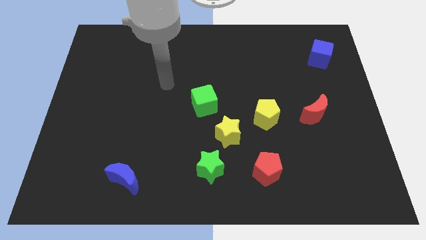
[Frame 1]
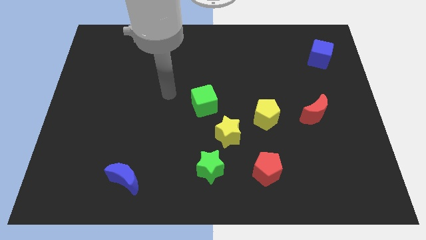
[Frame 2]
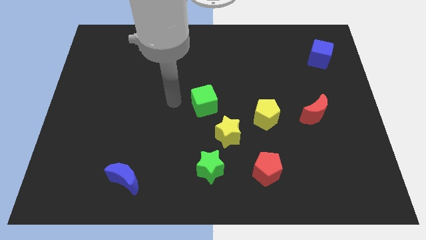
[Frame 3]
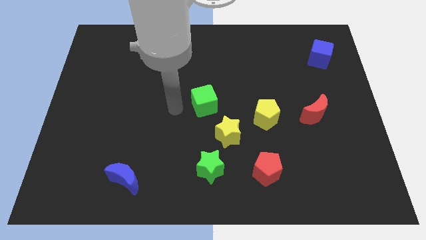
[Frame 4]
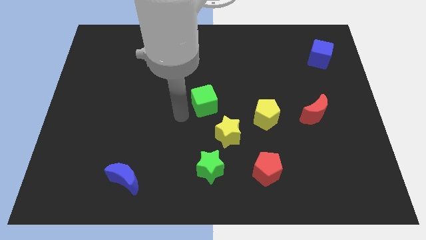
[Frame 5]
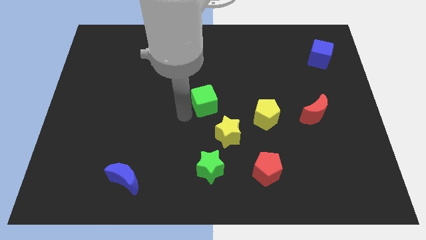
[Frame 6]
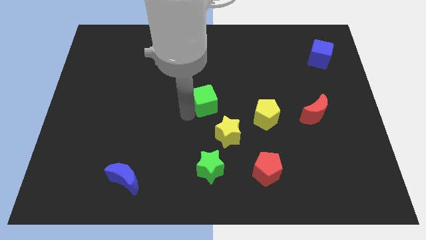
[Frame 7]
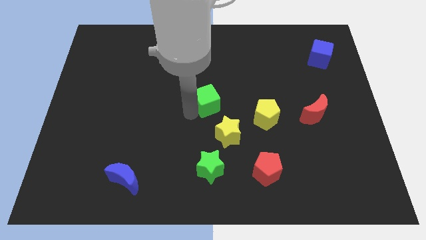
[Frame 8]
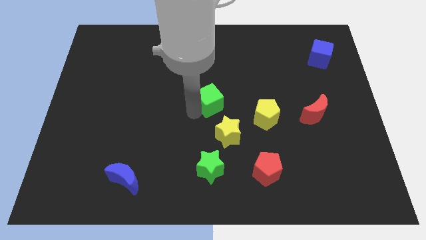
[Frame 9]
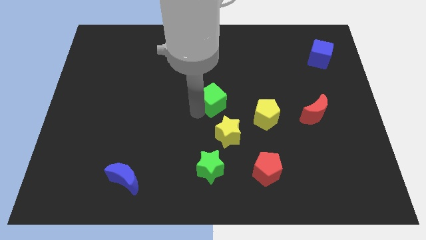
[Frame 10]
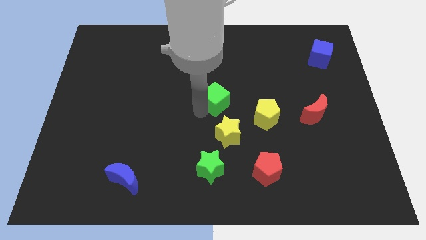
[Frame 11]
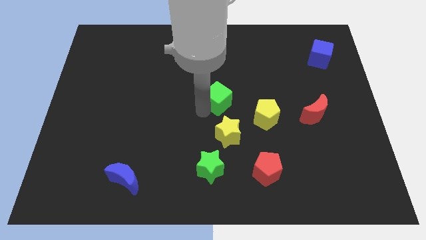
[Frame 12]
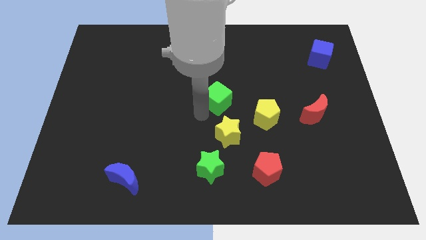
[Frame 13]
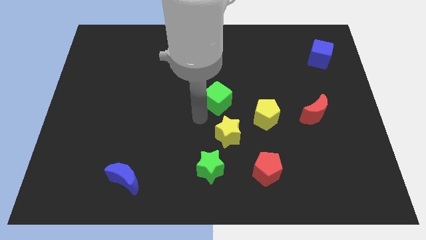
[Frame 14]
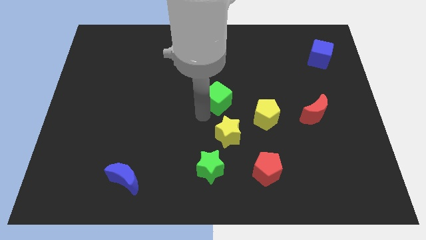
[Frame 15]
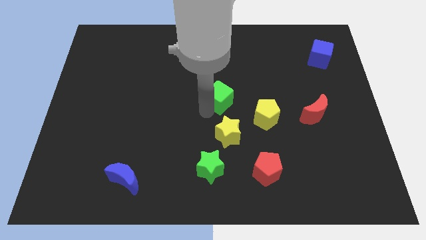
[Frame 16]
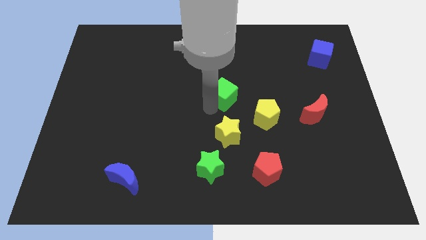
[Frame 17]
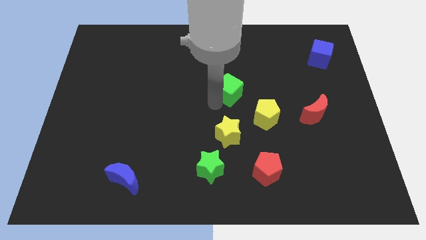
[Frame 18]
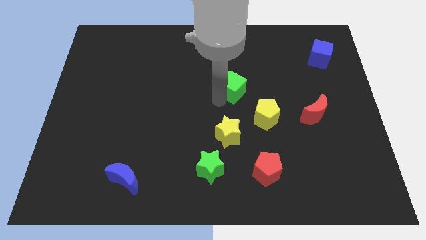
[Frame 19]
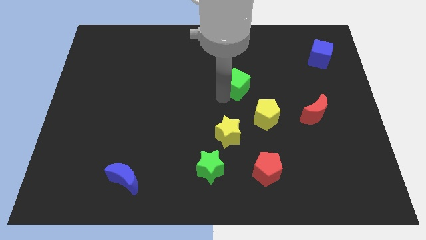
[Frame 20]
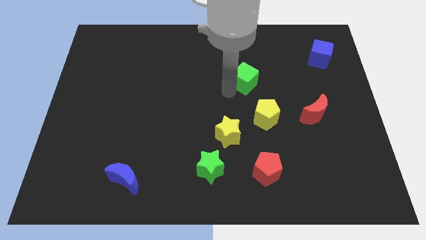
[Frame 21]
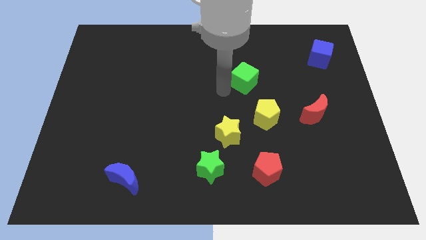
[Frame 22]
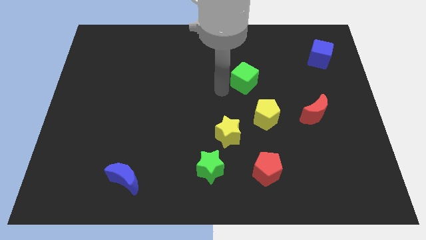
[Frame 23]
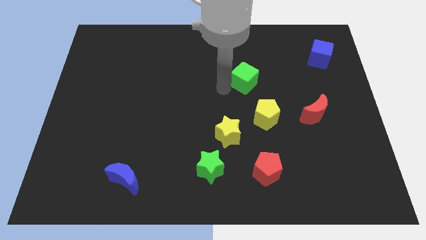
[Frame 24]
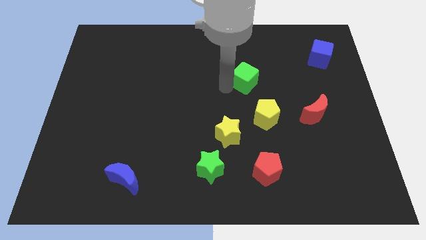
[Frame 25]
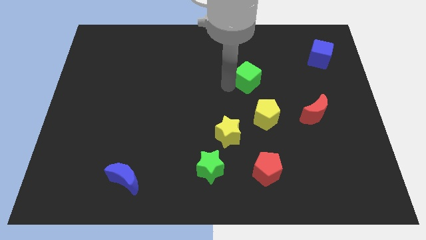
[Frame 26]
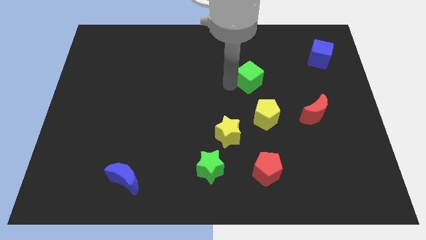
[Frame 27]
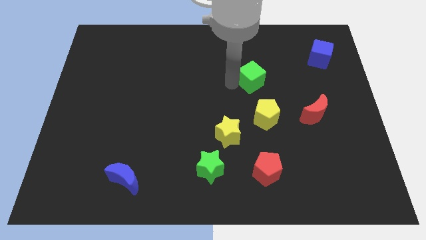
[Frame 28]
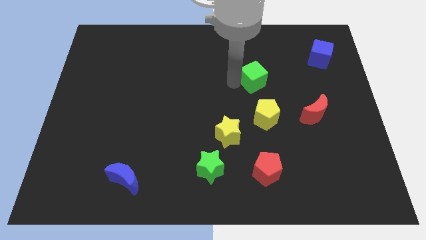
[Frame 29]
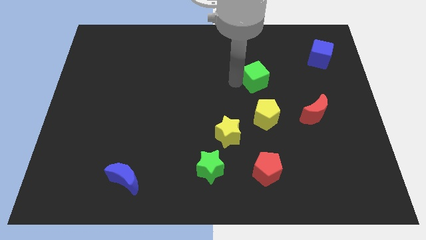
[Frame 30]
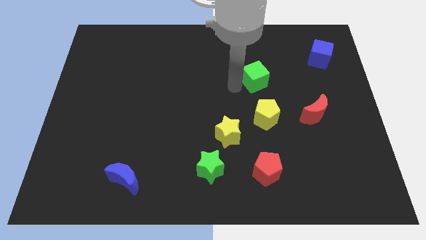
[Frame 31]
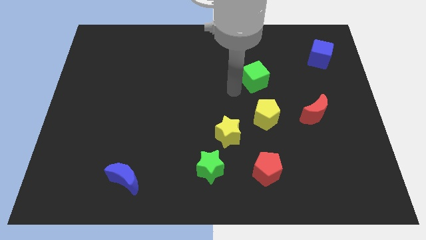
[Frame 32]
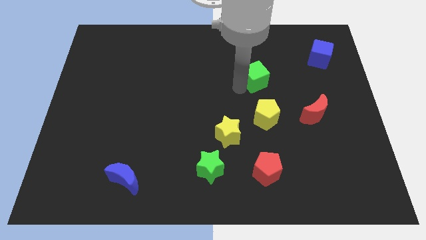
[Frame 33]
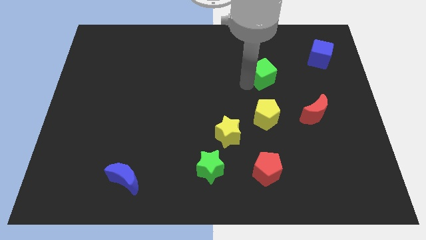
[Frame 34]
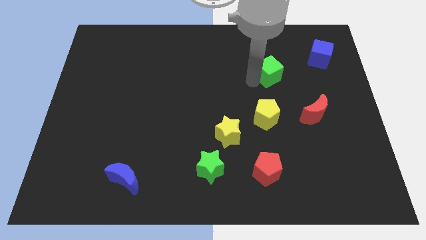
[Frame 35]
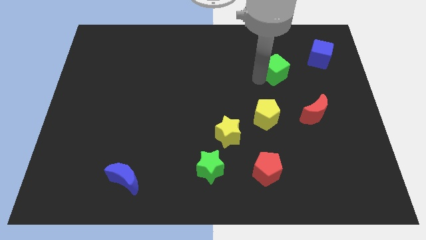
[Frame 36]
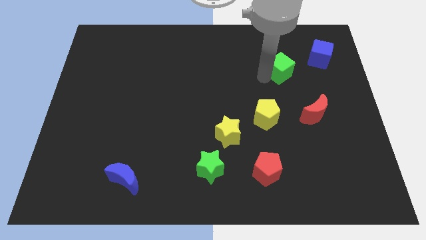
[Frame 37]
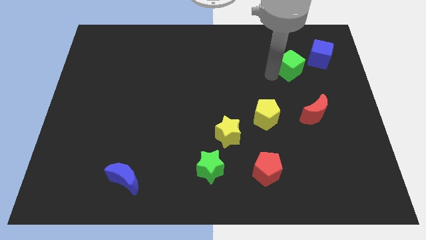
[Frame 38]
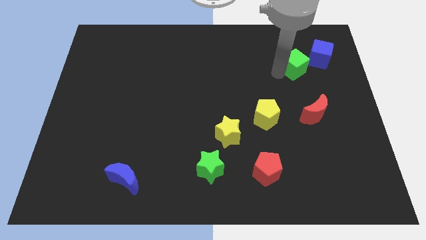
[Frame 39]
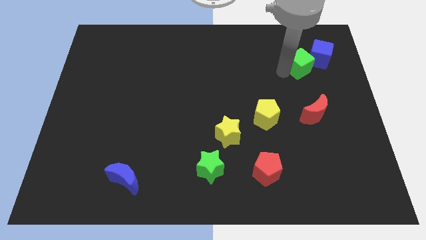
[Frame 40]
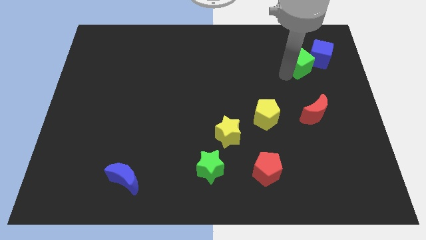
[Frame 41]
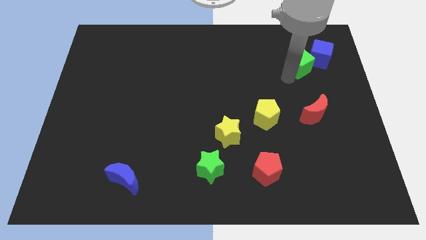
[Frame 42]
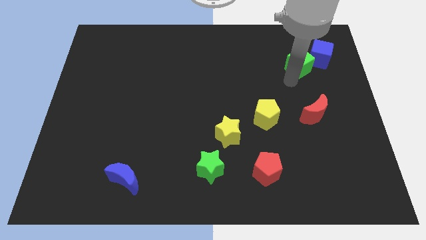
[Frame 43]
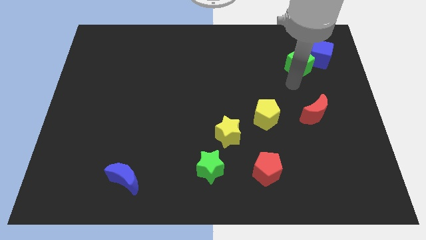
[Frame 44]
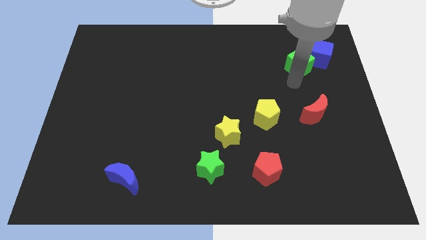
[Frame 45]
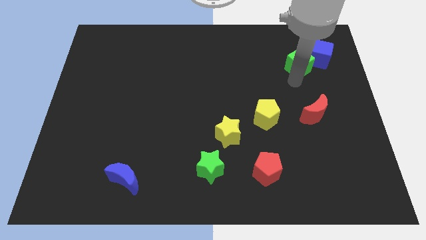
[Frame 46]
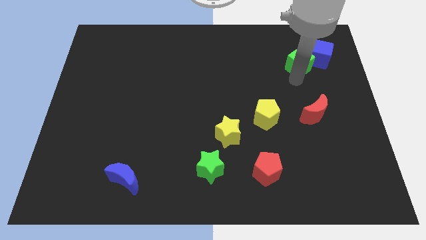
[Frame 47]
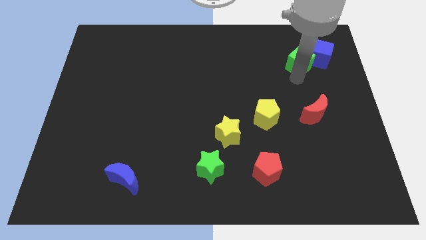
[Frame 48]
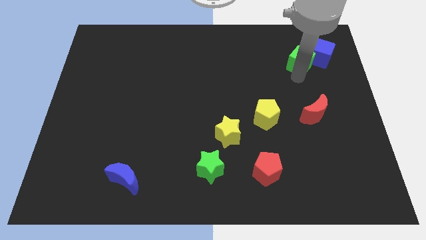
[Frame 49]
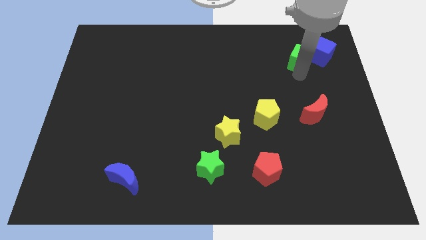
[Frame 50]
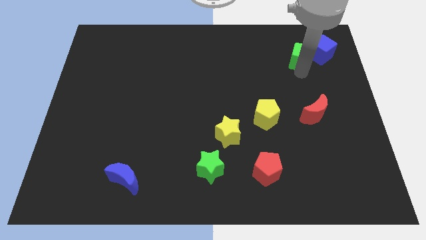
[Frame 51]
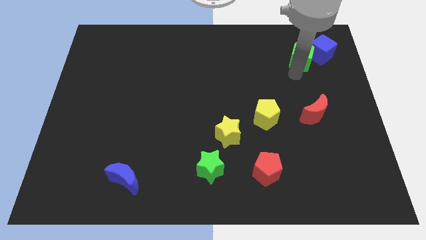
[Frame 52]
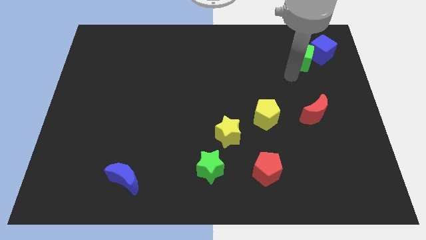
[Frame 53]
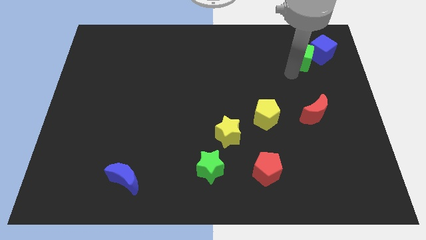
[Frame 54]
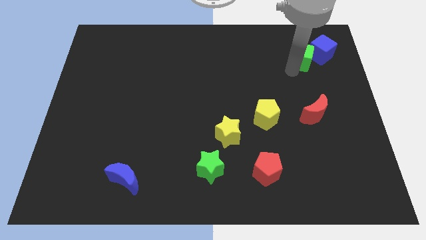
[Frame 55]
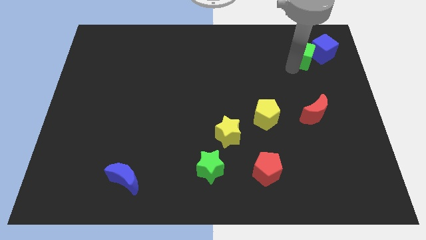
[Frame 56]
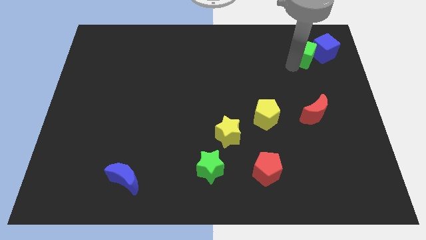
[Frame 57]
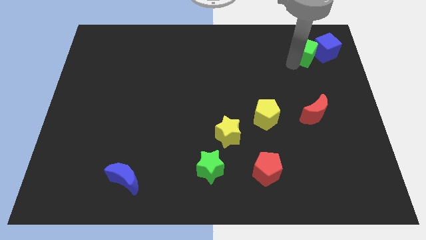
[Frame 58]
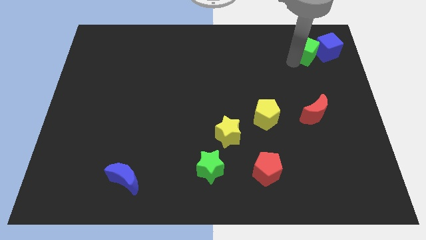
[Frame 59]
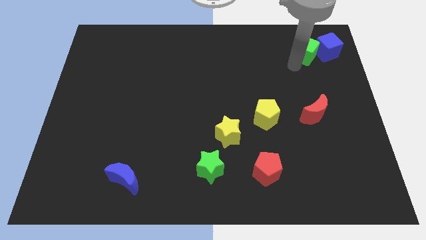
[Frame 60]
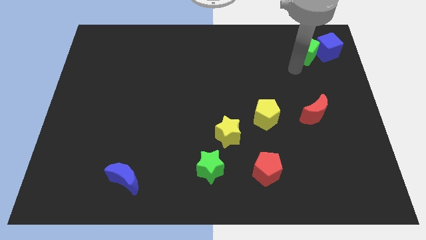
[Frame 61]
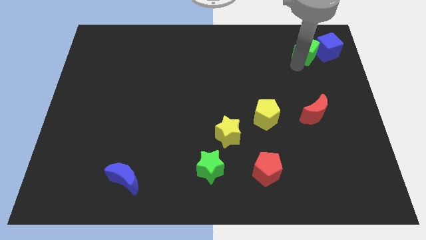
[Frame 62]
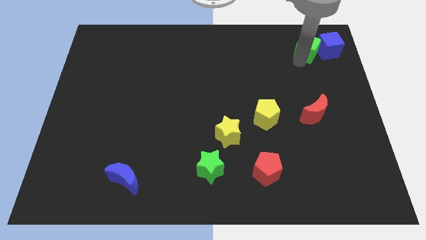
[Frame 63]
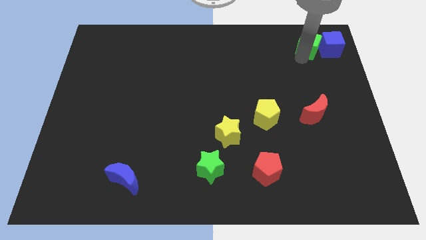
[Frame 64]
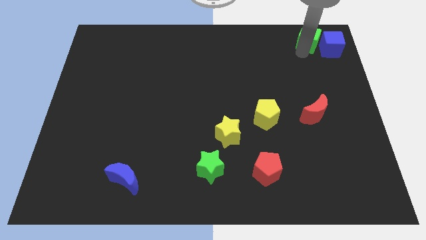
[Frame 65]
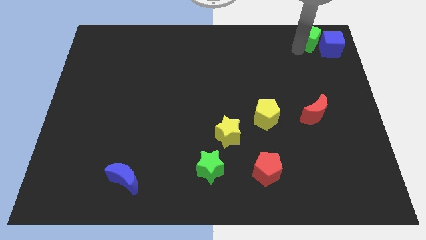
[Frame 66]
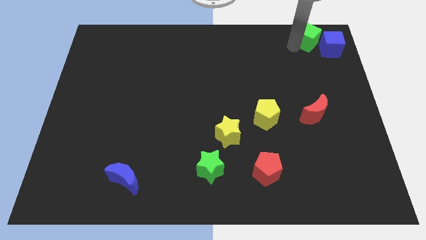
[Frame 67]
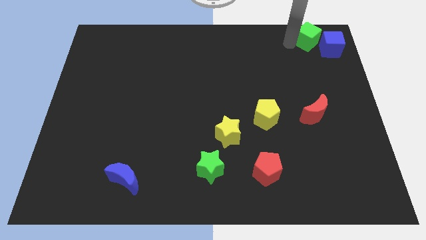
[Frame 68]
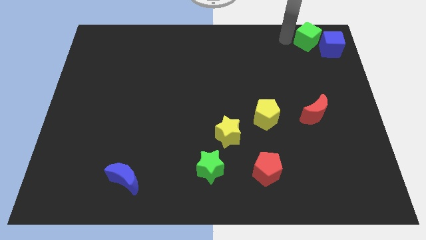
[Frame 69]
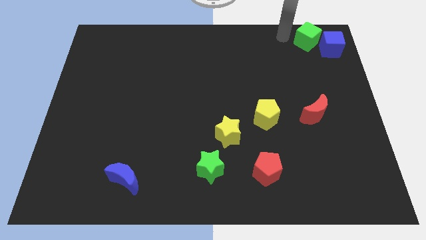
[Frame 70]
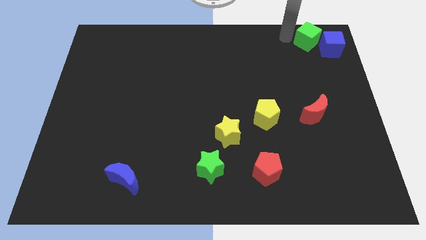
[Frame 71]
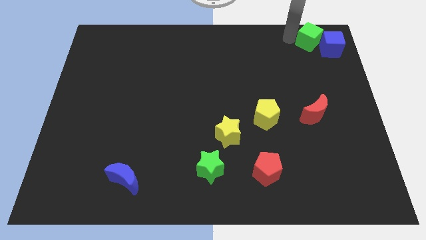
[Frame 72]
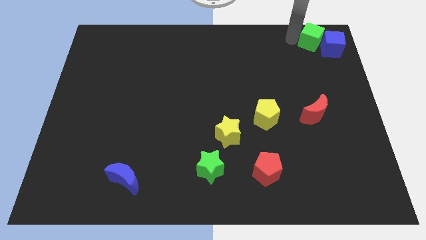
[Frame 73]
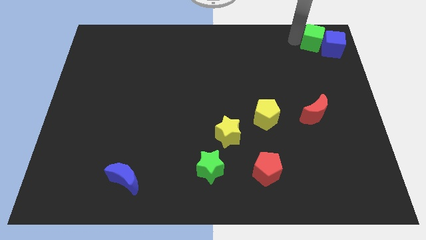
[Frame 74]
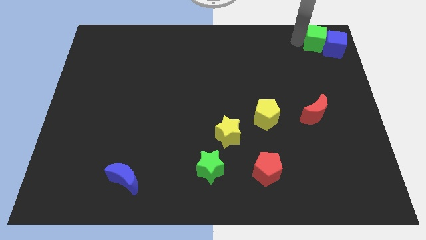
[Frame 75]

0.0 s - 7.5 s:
slide the green cube to the top right of the board
